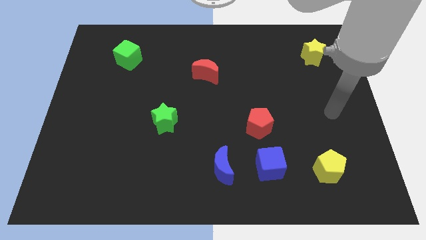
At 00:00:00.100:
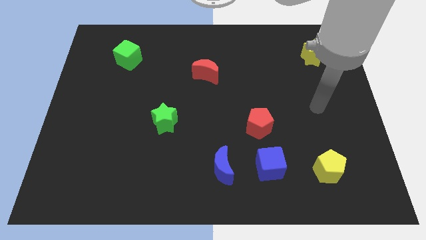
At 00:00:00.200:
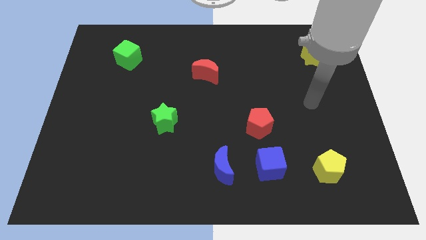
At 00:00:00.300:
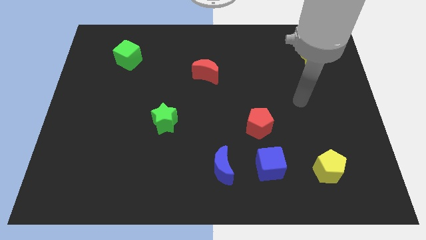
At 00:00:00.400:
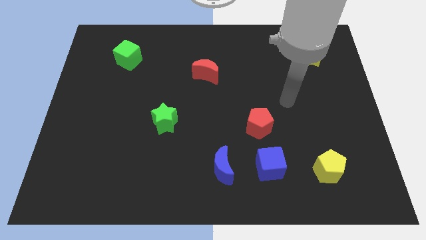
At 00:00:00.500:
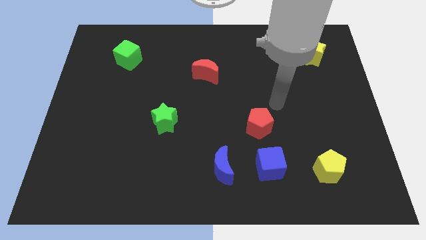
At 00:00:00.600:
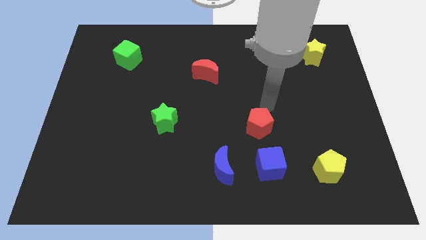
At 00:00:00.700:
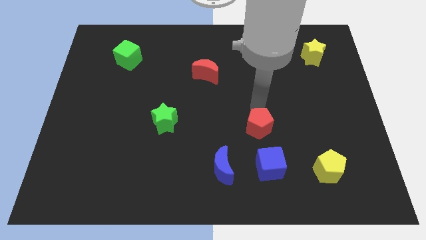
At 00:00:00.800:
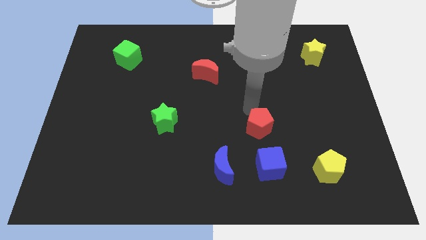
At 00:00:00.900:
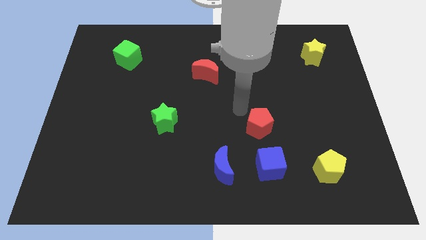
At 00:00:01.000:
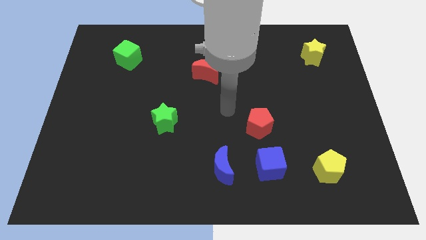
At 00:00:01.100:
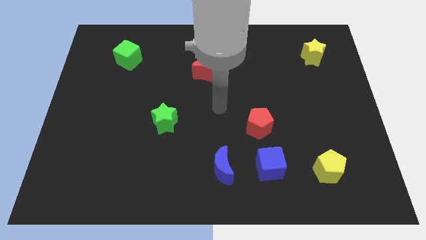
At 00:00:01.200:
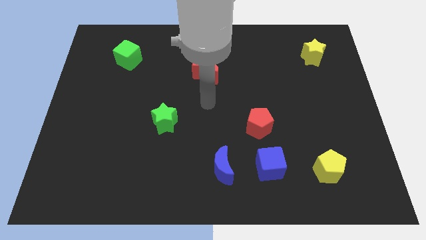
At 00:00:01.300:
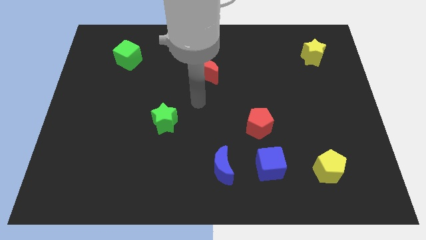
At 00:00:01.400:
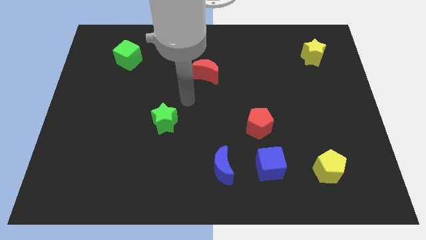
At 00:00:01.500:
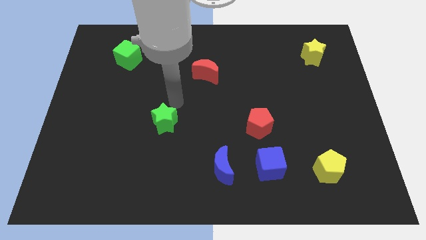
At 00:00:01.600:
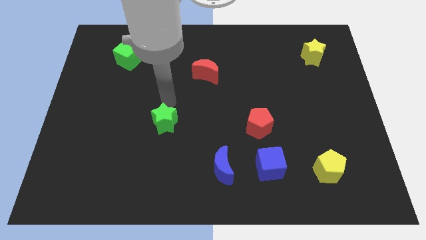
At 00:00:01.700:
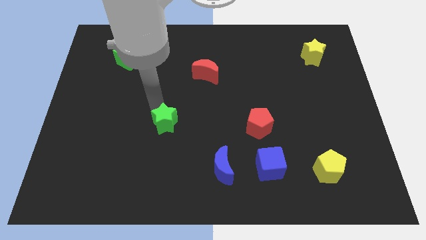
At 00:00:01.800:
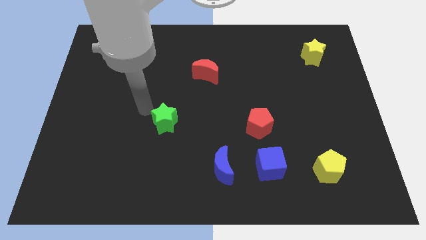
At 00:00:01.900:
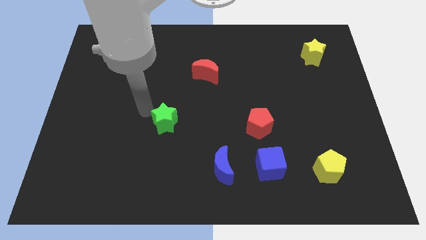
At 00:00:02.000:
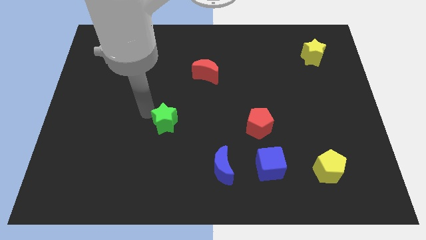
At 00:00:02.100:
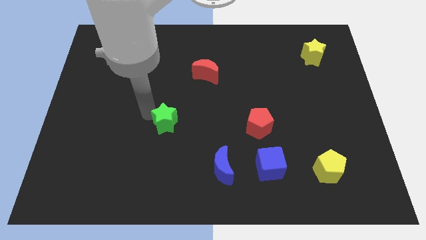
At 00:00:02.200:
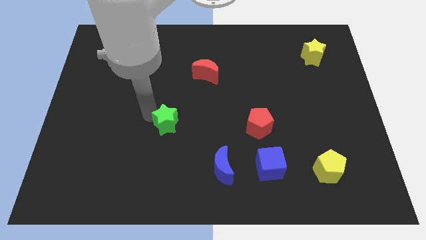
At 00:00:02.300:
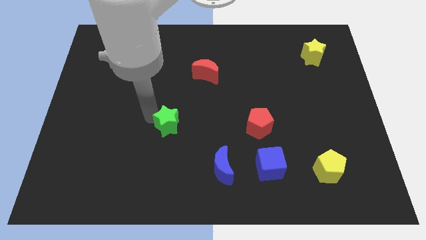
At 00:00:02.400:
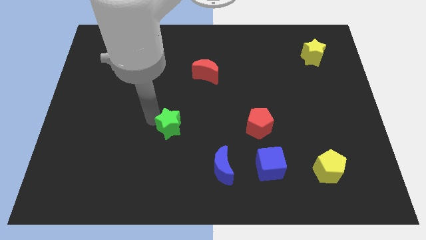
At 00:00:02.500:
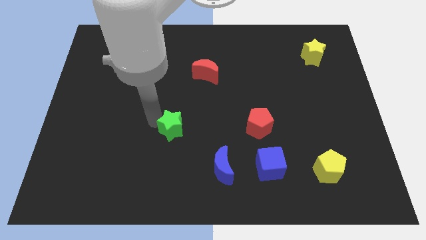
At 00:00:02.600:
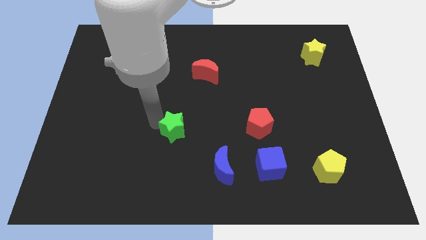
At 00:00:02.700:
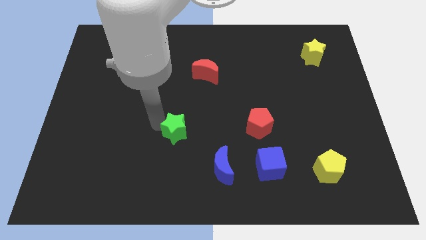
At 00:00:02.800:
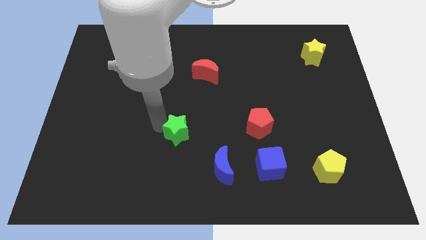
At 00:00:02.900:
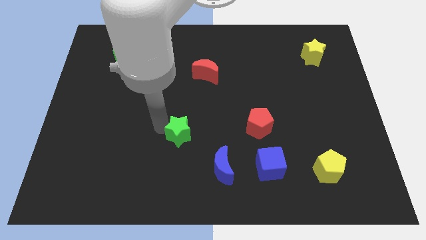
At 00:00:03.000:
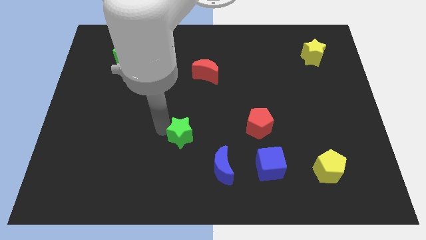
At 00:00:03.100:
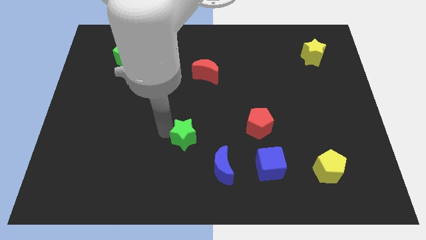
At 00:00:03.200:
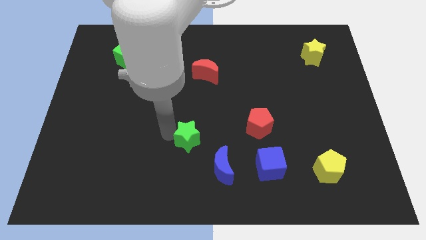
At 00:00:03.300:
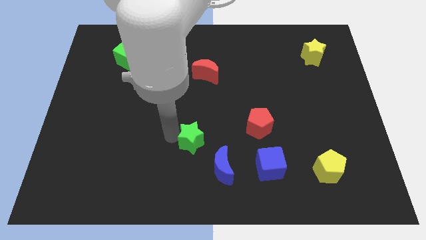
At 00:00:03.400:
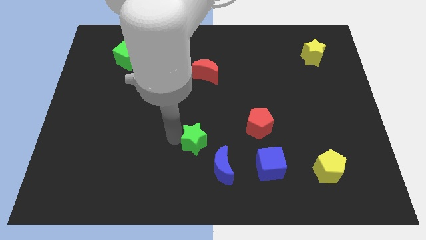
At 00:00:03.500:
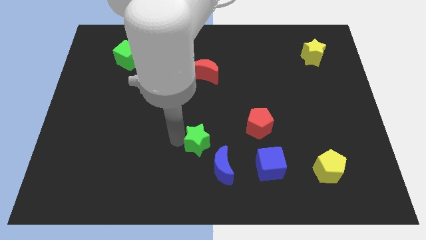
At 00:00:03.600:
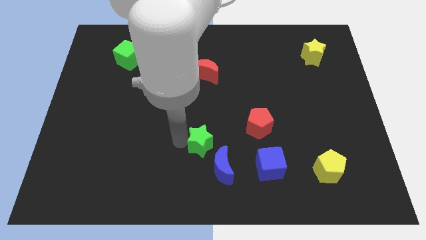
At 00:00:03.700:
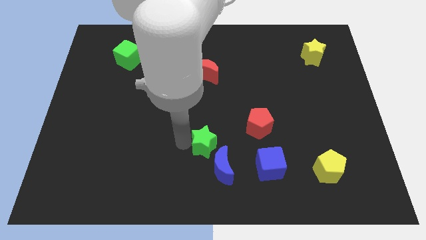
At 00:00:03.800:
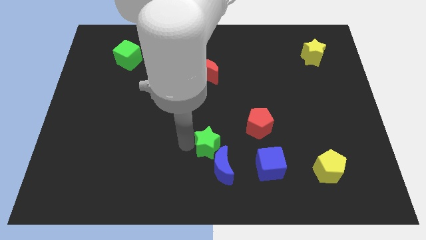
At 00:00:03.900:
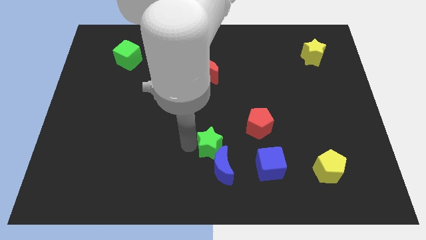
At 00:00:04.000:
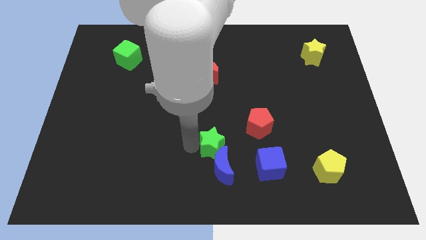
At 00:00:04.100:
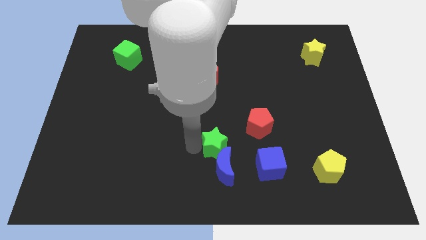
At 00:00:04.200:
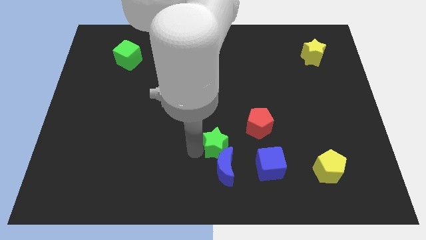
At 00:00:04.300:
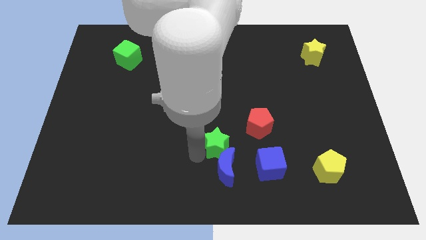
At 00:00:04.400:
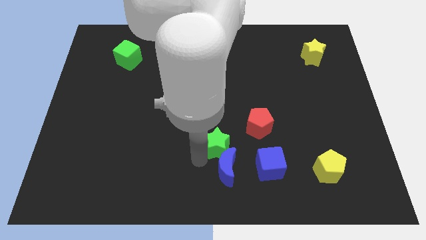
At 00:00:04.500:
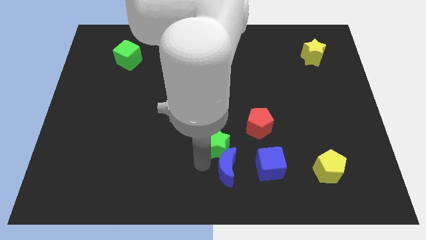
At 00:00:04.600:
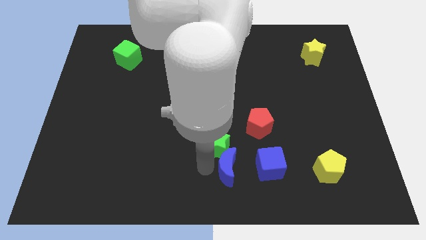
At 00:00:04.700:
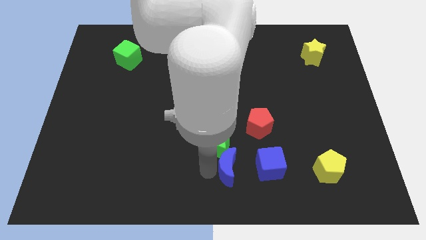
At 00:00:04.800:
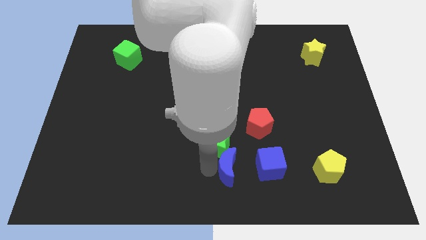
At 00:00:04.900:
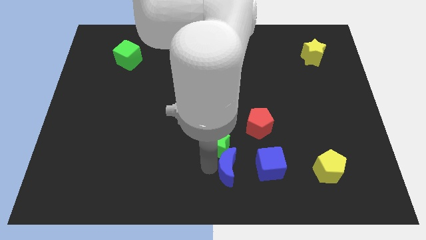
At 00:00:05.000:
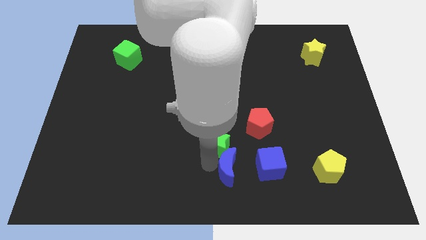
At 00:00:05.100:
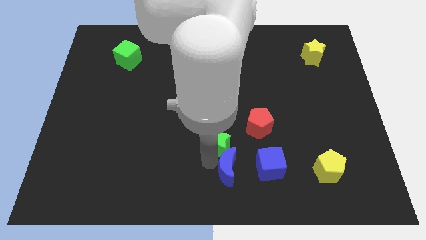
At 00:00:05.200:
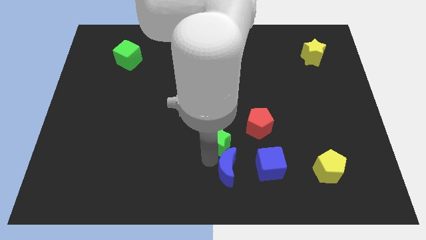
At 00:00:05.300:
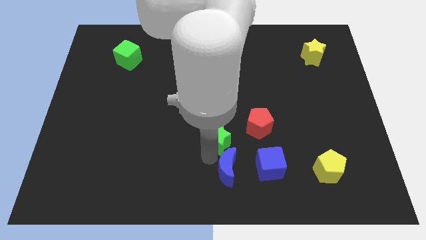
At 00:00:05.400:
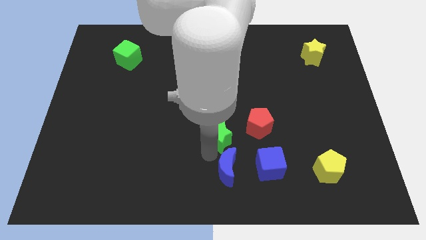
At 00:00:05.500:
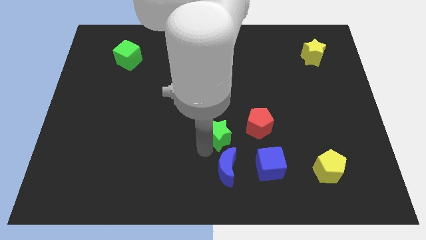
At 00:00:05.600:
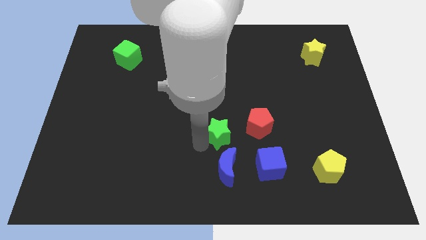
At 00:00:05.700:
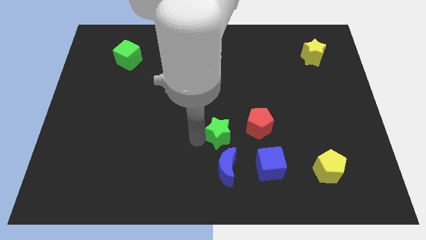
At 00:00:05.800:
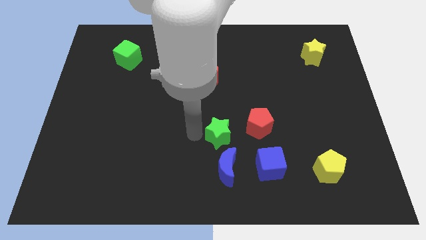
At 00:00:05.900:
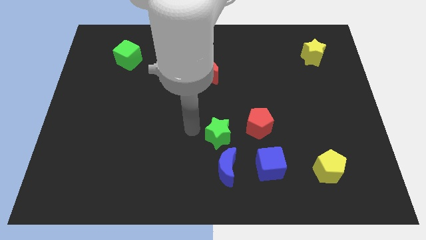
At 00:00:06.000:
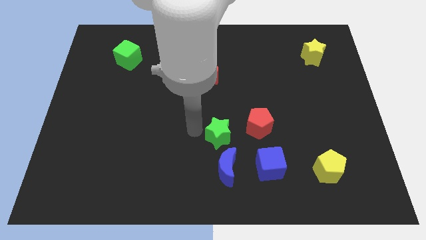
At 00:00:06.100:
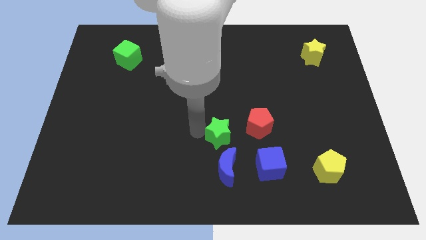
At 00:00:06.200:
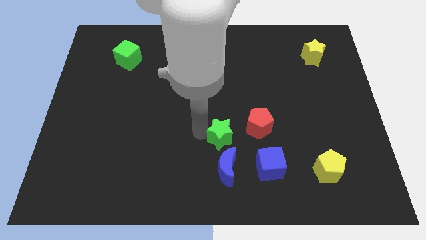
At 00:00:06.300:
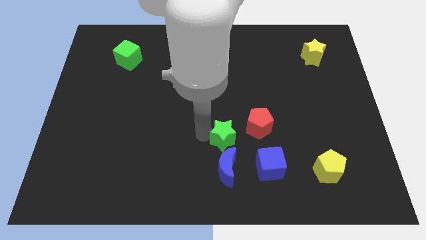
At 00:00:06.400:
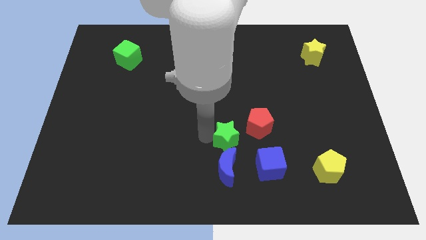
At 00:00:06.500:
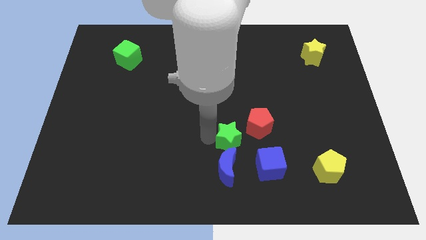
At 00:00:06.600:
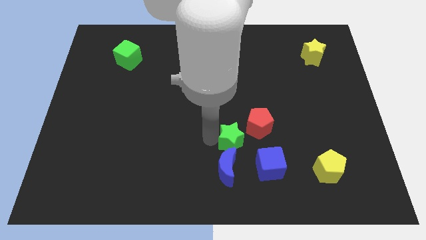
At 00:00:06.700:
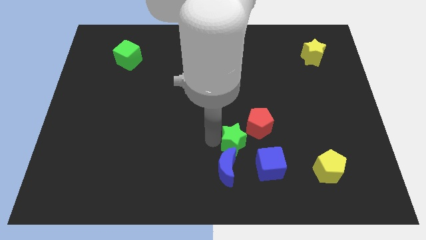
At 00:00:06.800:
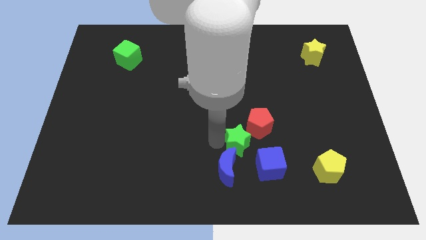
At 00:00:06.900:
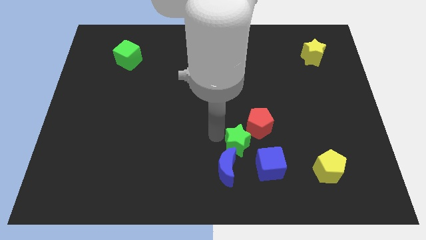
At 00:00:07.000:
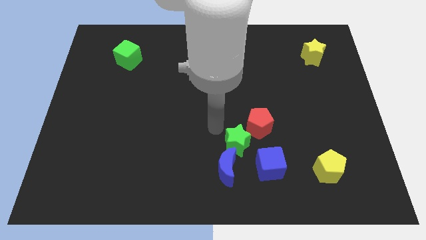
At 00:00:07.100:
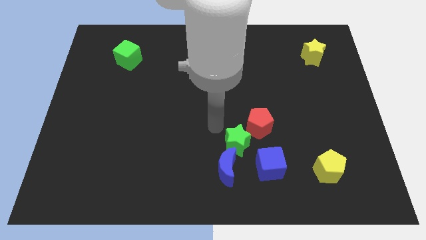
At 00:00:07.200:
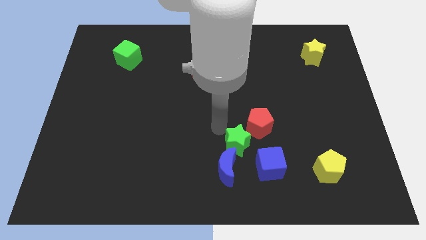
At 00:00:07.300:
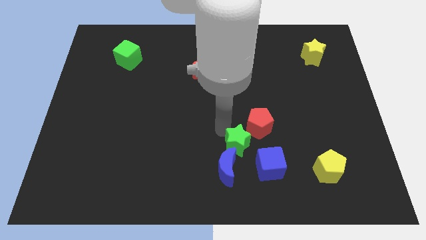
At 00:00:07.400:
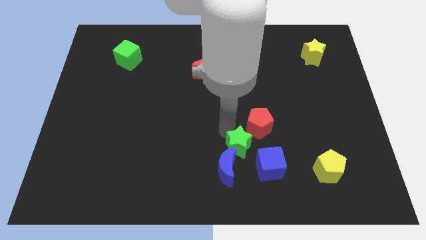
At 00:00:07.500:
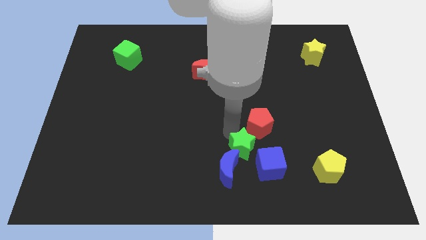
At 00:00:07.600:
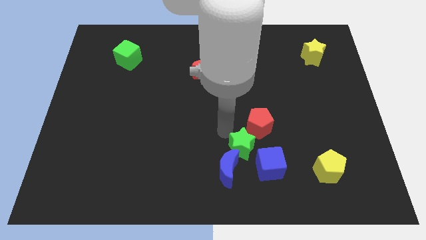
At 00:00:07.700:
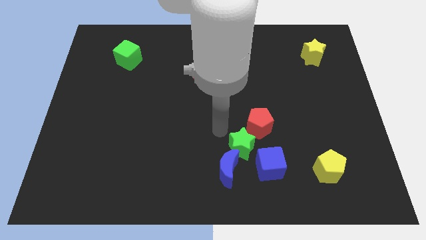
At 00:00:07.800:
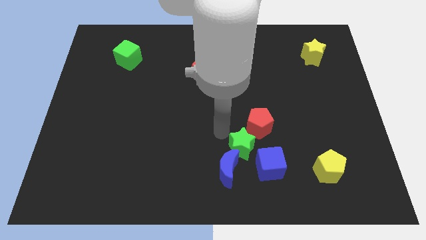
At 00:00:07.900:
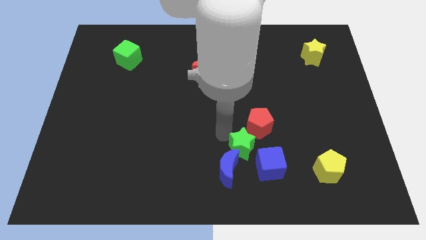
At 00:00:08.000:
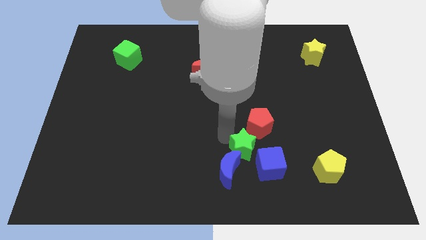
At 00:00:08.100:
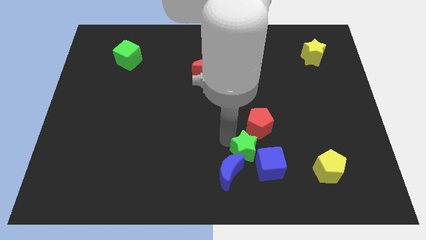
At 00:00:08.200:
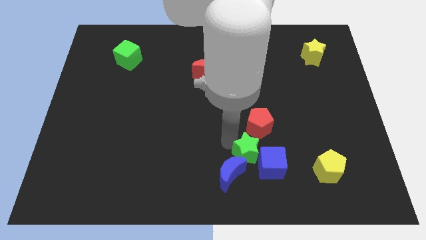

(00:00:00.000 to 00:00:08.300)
put the green star next to the blue cube
